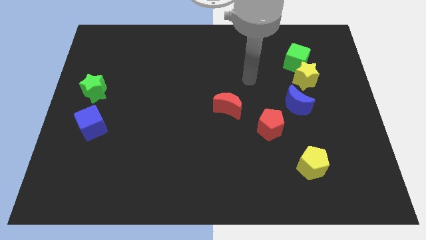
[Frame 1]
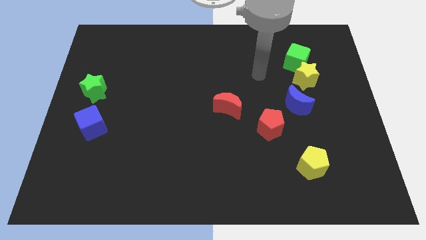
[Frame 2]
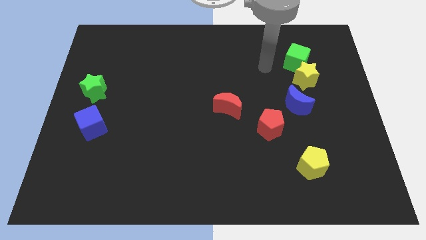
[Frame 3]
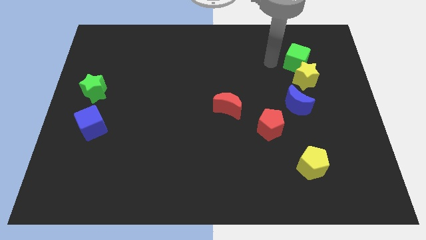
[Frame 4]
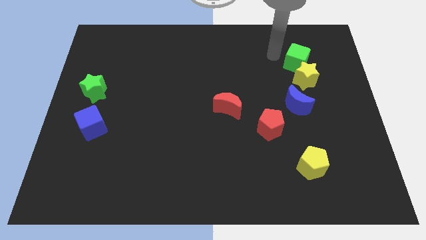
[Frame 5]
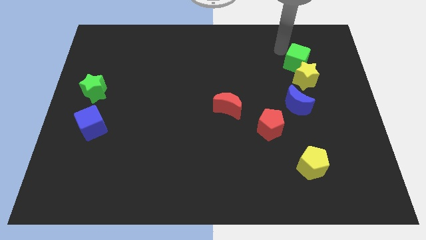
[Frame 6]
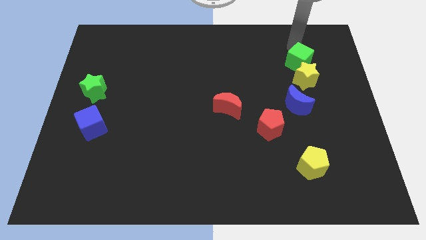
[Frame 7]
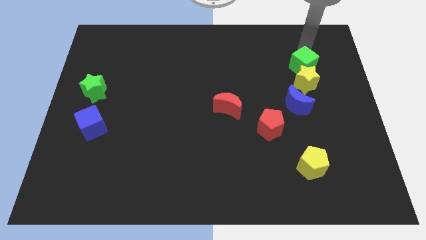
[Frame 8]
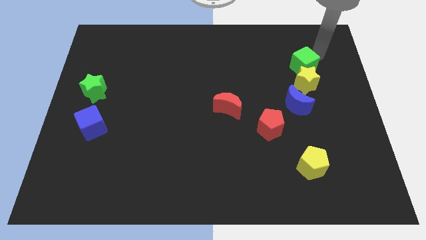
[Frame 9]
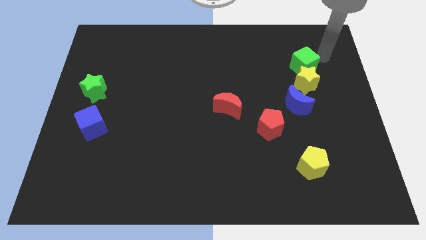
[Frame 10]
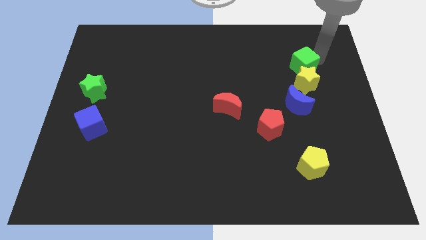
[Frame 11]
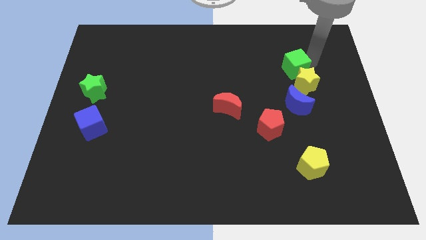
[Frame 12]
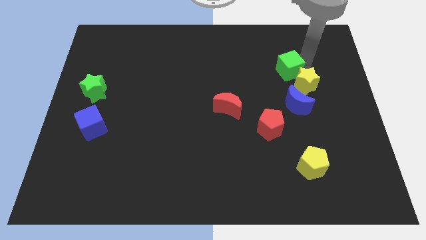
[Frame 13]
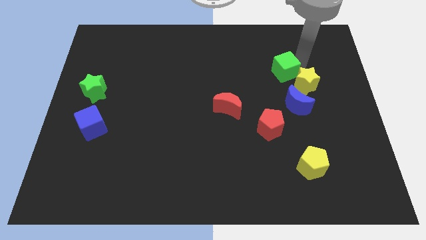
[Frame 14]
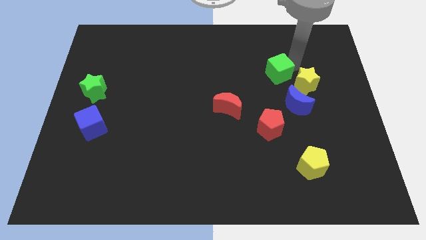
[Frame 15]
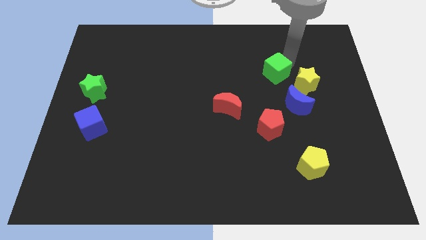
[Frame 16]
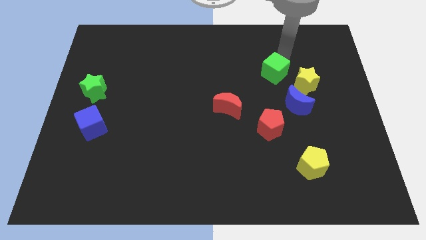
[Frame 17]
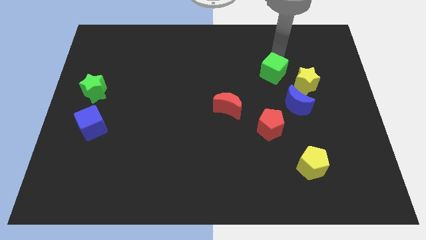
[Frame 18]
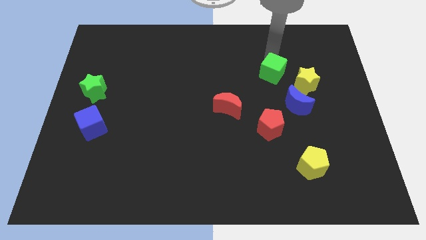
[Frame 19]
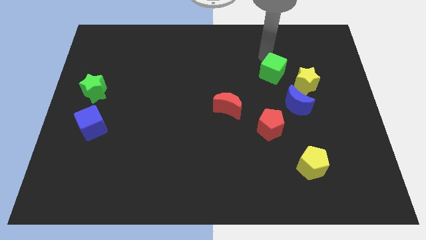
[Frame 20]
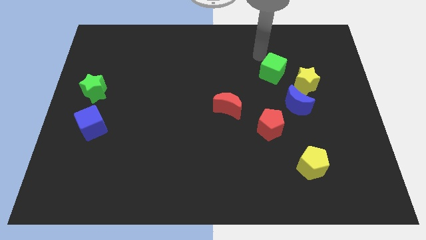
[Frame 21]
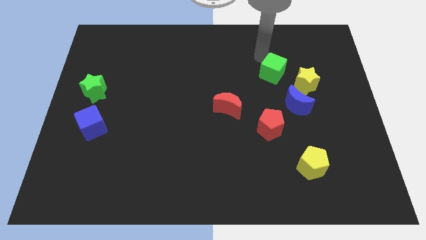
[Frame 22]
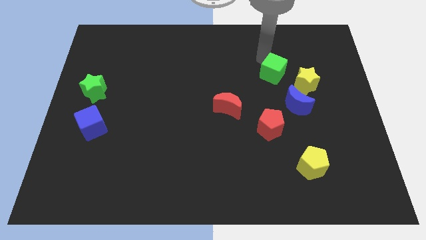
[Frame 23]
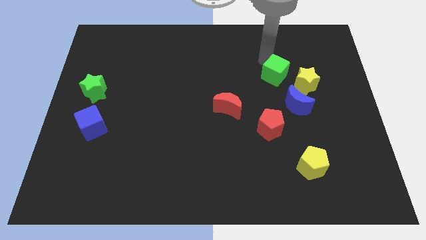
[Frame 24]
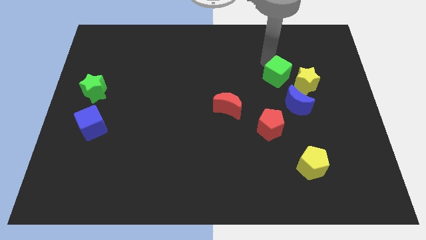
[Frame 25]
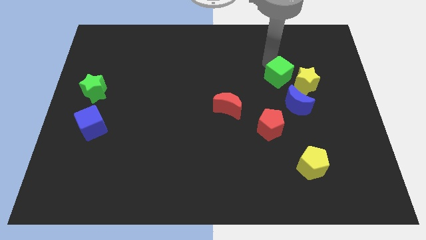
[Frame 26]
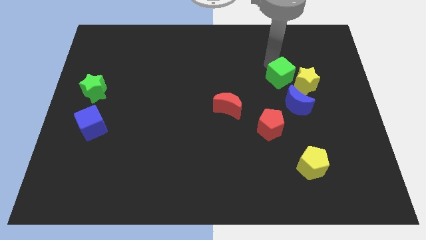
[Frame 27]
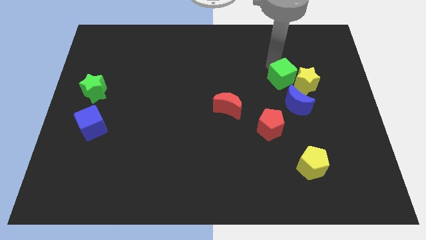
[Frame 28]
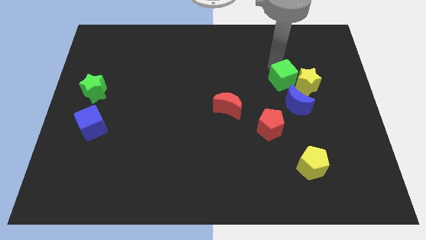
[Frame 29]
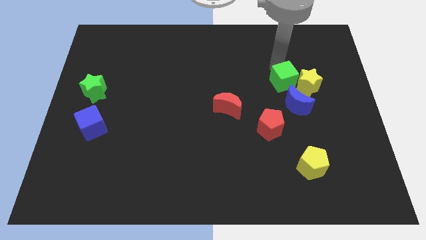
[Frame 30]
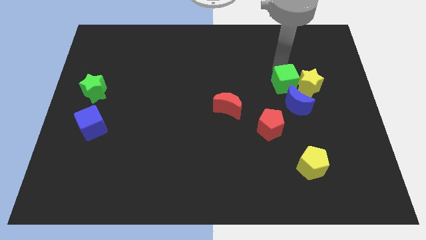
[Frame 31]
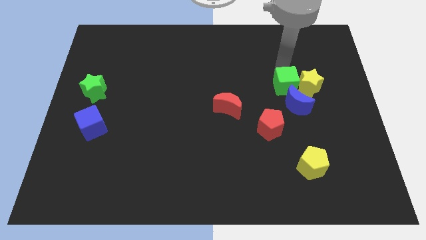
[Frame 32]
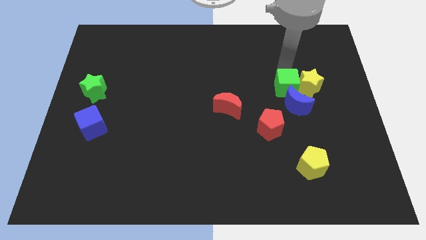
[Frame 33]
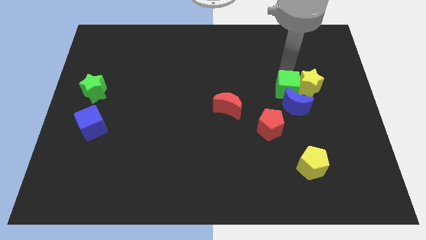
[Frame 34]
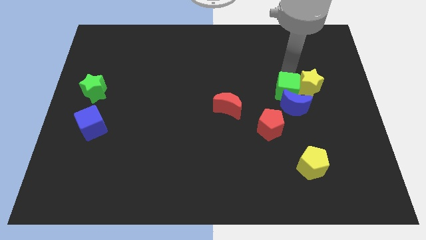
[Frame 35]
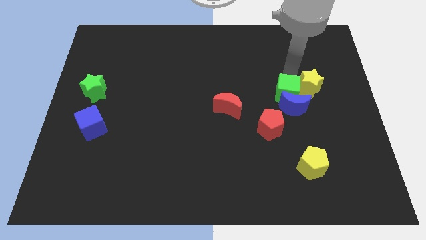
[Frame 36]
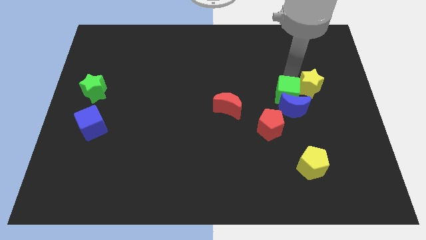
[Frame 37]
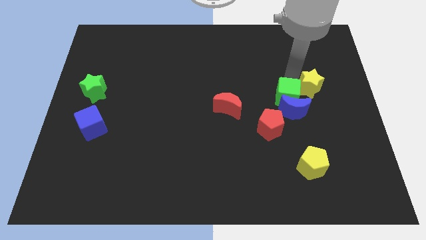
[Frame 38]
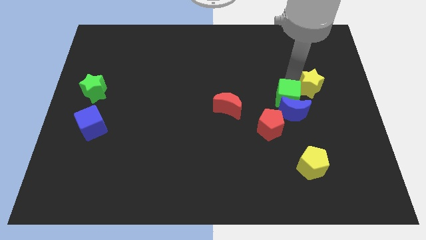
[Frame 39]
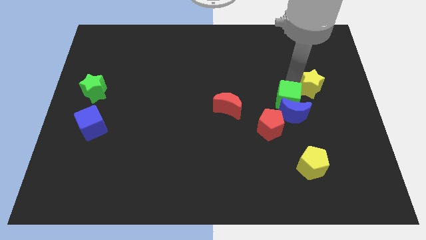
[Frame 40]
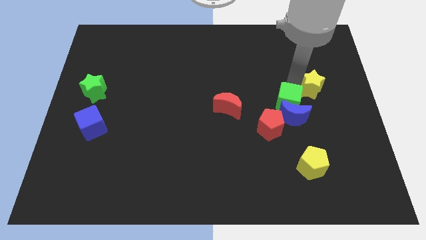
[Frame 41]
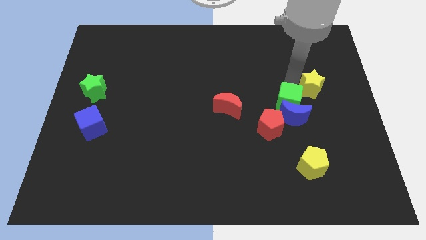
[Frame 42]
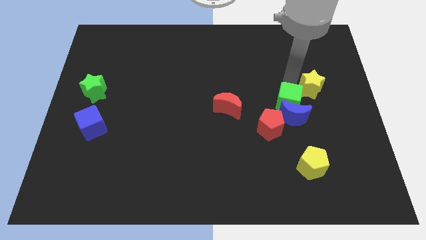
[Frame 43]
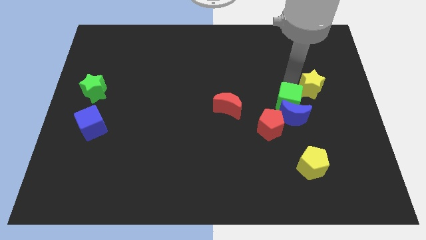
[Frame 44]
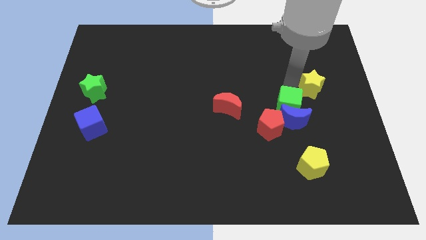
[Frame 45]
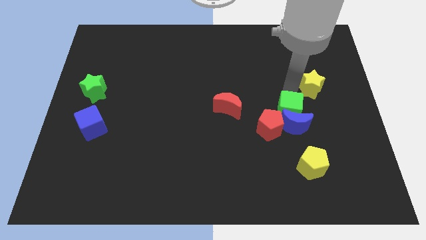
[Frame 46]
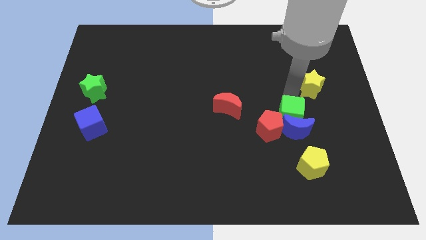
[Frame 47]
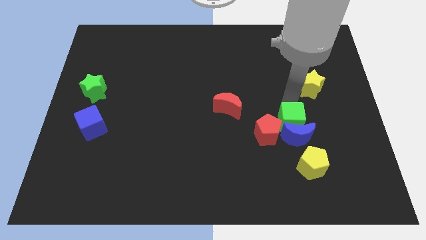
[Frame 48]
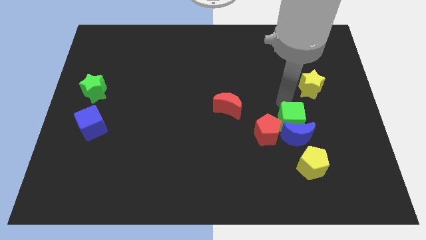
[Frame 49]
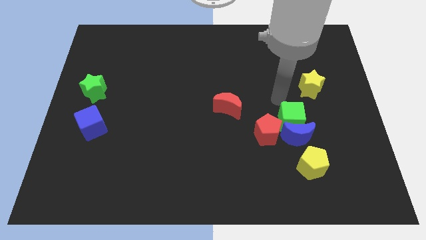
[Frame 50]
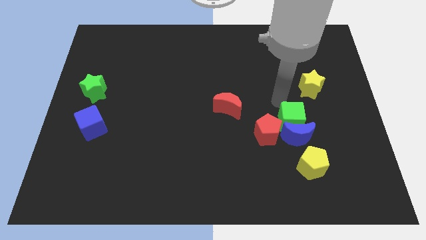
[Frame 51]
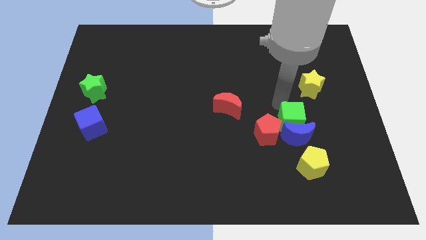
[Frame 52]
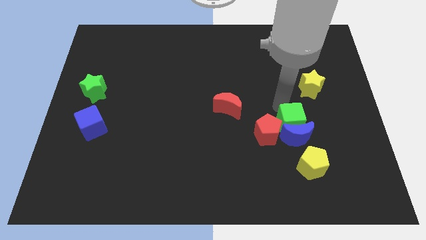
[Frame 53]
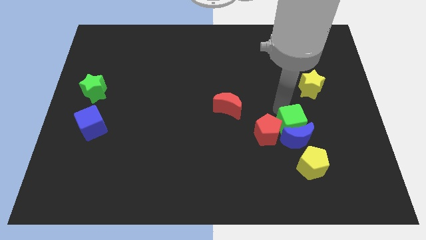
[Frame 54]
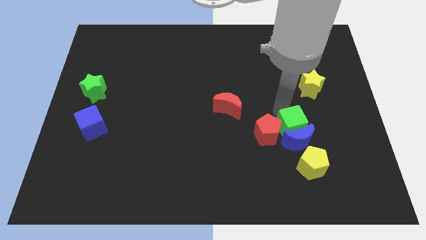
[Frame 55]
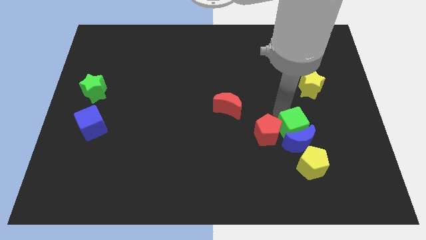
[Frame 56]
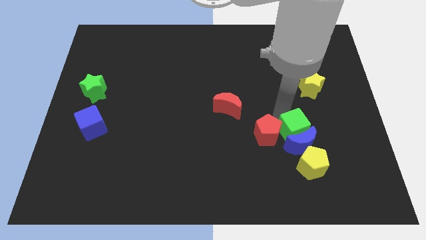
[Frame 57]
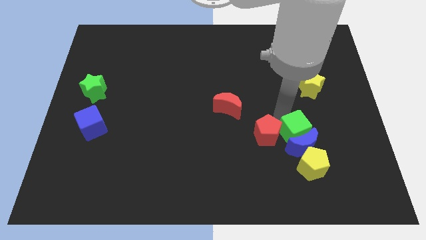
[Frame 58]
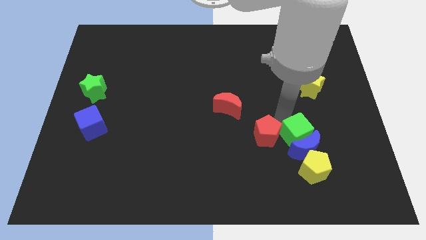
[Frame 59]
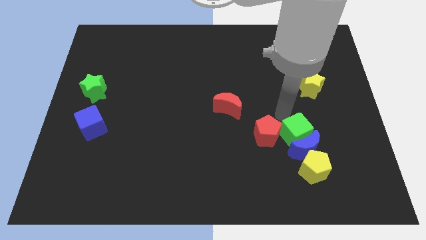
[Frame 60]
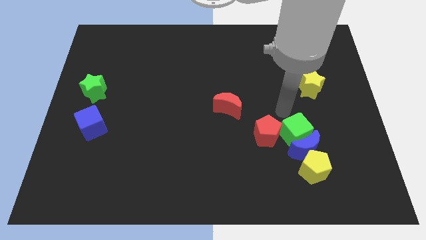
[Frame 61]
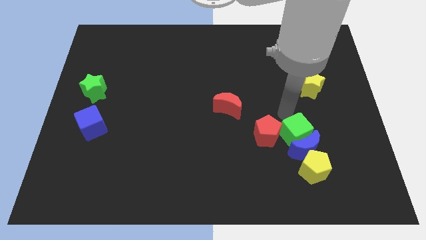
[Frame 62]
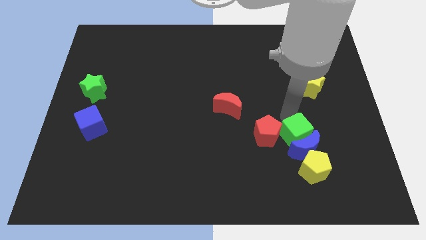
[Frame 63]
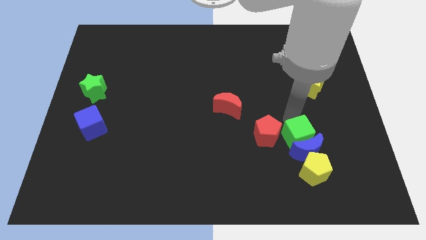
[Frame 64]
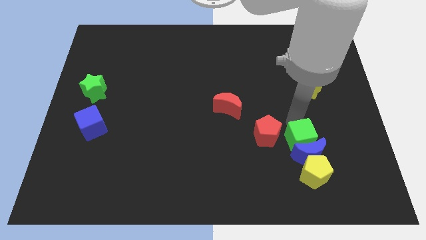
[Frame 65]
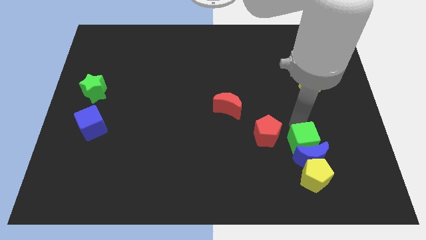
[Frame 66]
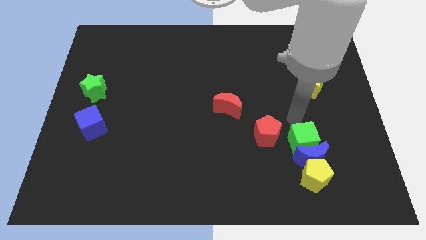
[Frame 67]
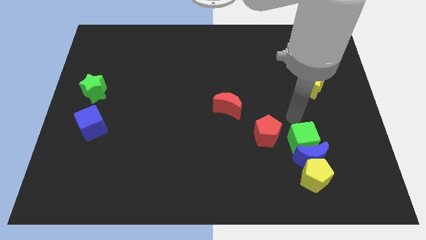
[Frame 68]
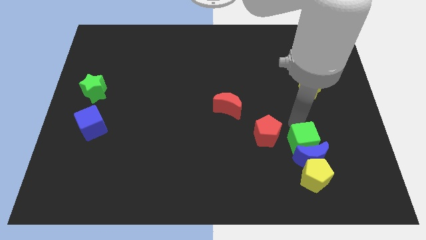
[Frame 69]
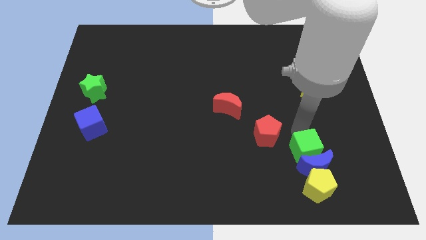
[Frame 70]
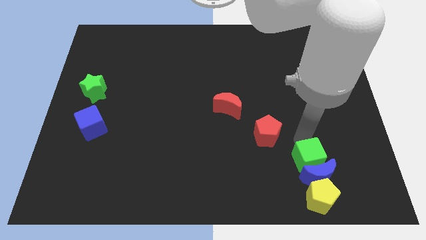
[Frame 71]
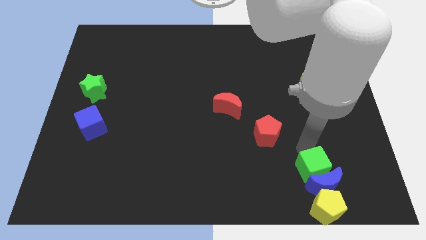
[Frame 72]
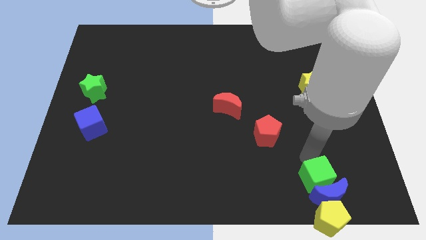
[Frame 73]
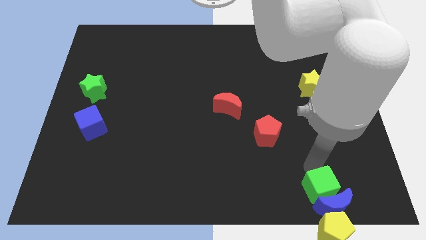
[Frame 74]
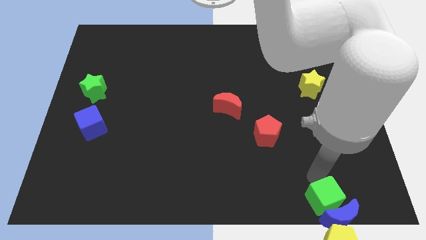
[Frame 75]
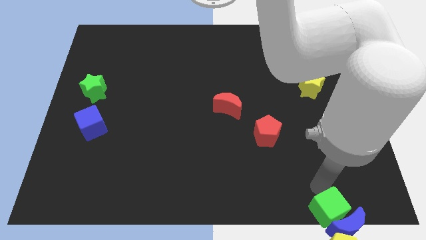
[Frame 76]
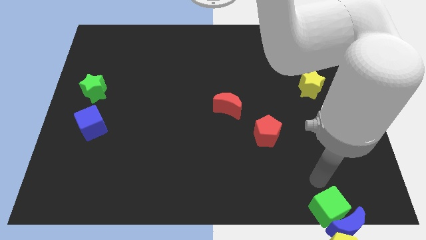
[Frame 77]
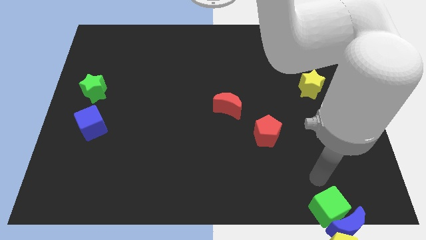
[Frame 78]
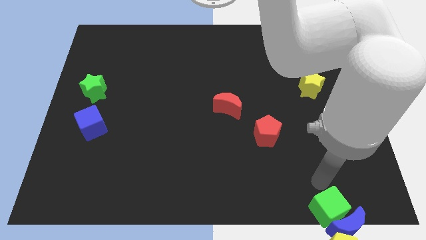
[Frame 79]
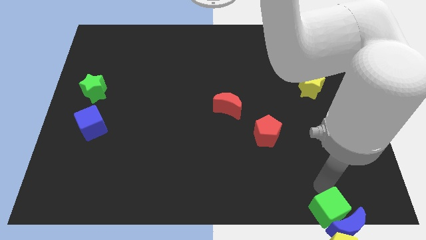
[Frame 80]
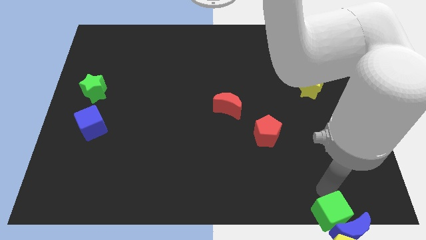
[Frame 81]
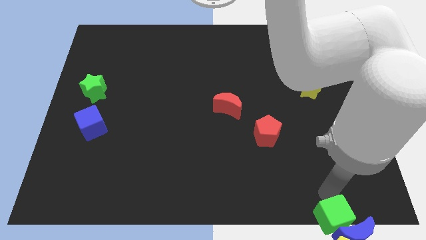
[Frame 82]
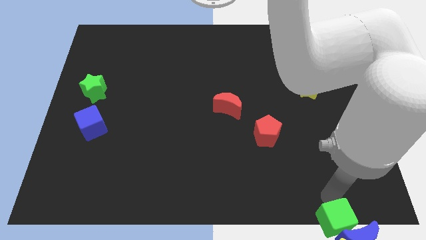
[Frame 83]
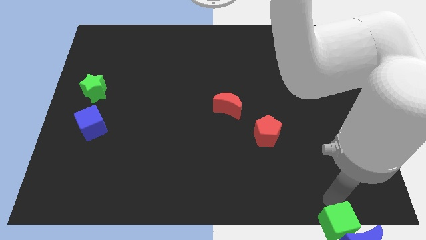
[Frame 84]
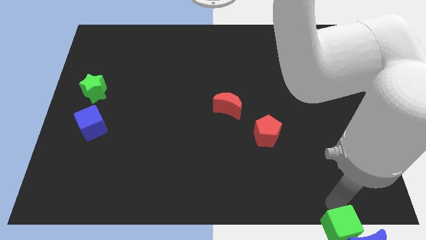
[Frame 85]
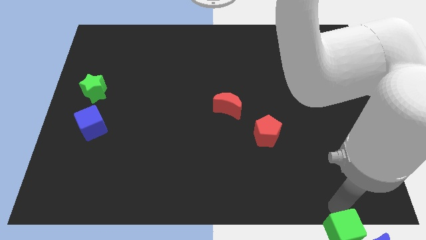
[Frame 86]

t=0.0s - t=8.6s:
push the green cube towards the yellow pentagon
